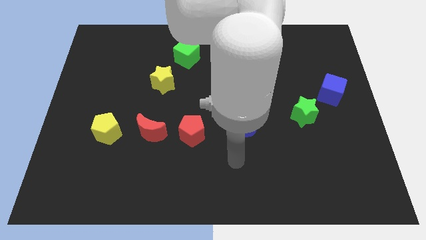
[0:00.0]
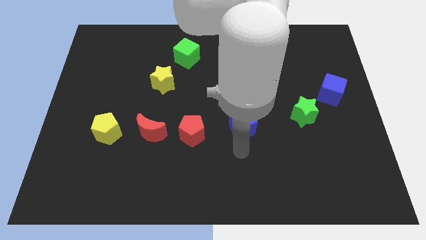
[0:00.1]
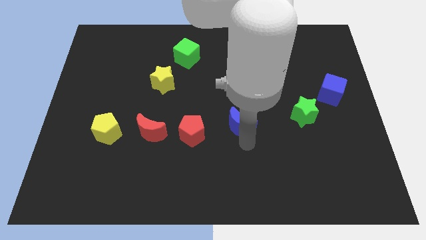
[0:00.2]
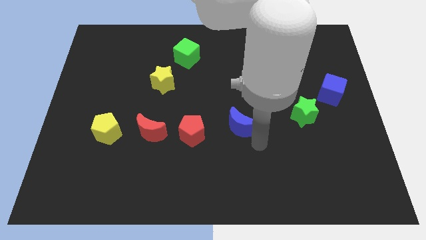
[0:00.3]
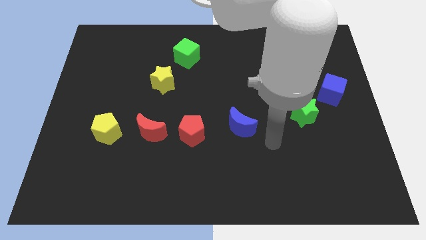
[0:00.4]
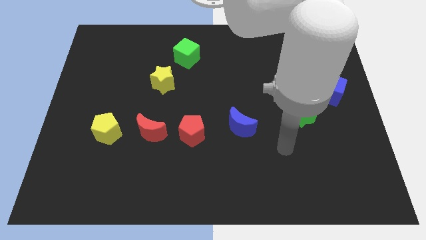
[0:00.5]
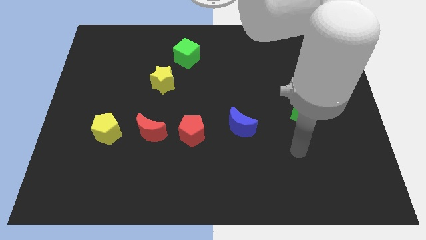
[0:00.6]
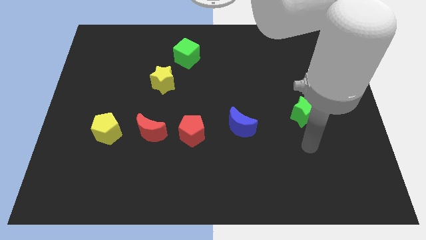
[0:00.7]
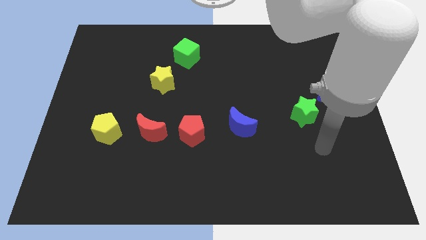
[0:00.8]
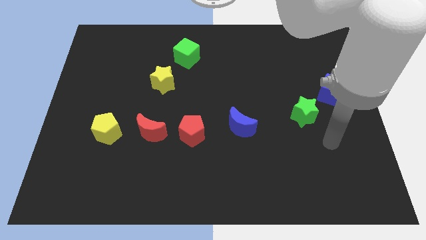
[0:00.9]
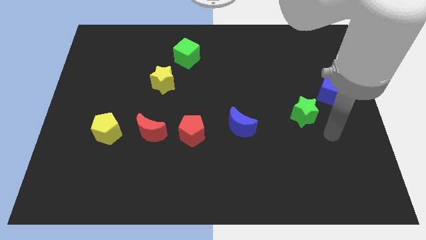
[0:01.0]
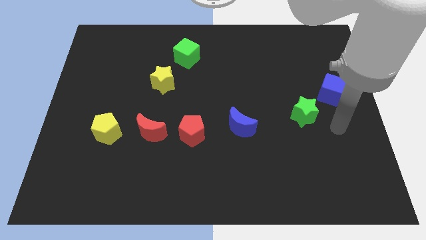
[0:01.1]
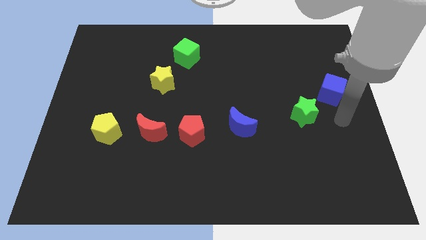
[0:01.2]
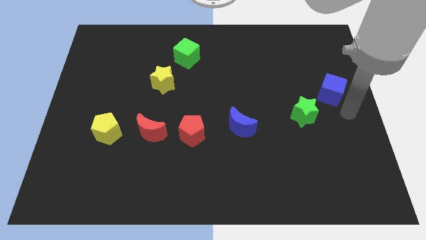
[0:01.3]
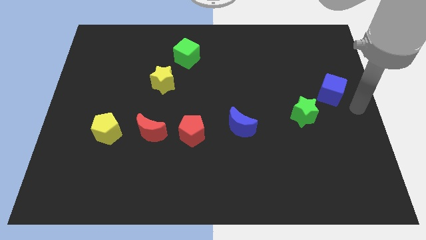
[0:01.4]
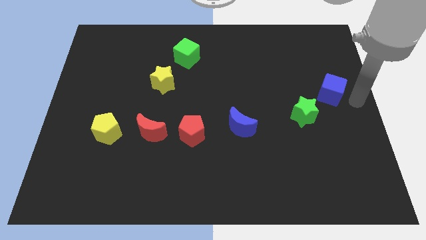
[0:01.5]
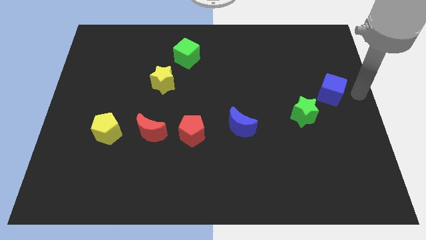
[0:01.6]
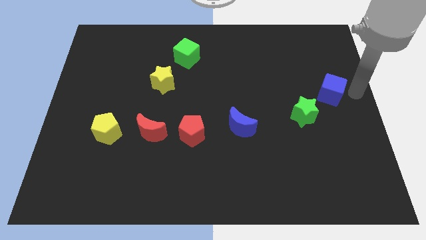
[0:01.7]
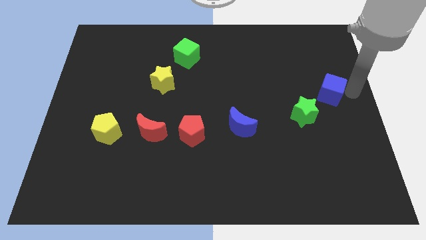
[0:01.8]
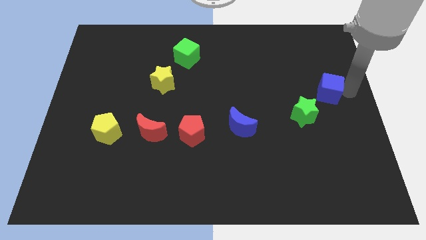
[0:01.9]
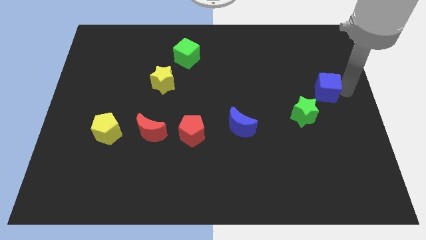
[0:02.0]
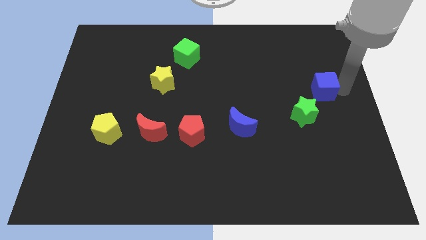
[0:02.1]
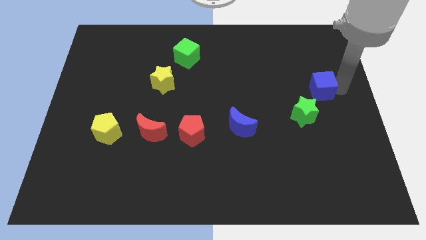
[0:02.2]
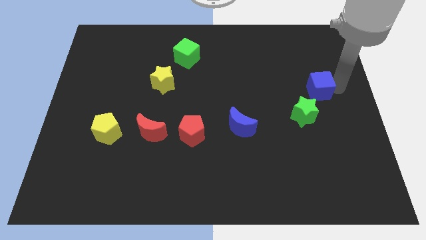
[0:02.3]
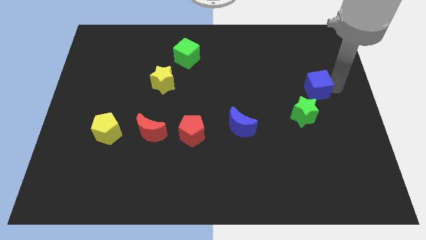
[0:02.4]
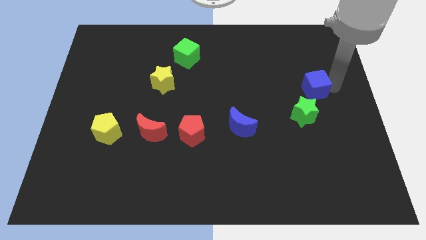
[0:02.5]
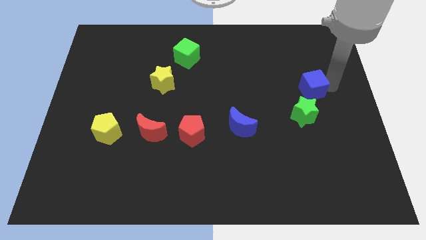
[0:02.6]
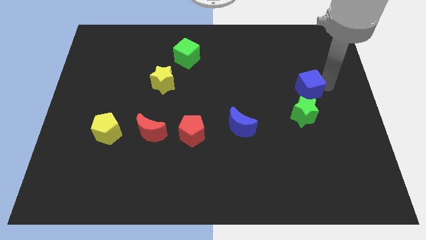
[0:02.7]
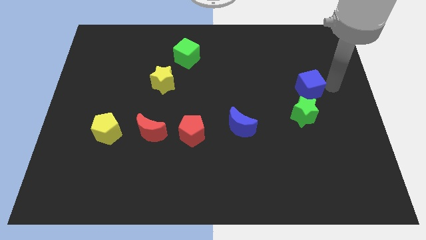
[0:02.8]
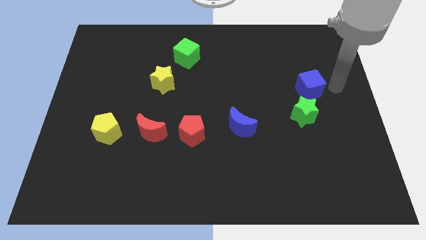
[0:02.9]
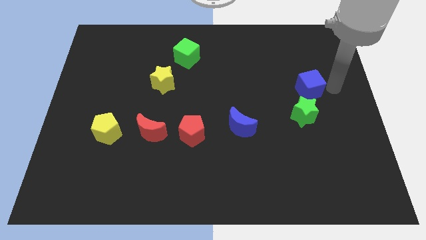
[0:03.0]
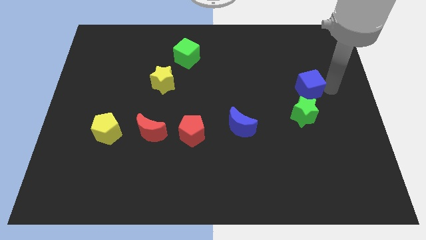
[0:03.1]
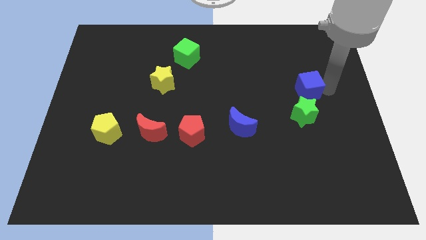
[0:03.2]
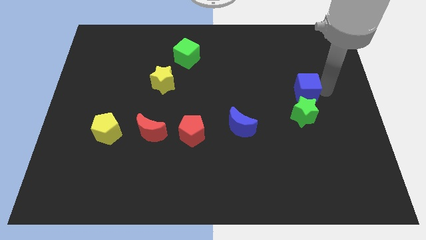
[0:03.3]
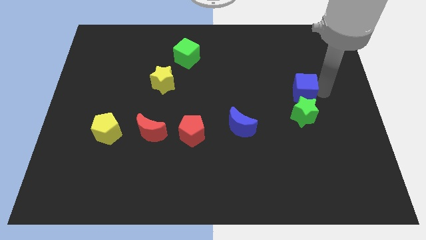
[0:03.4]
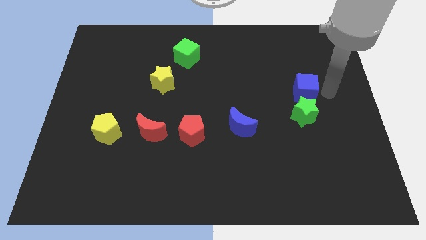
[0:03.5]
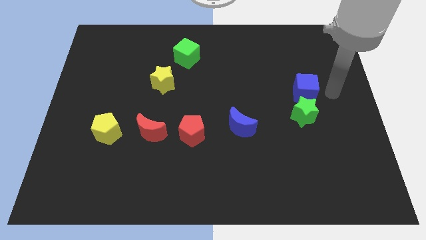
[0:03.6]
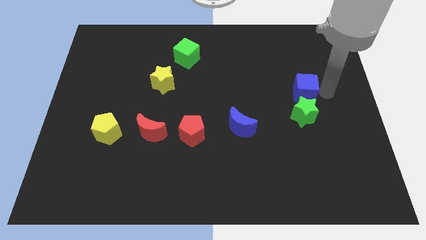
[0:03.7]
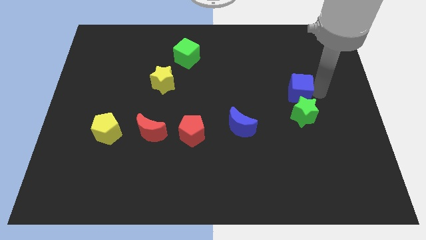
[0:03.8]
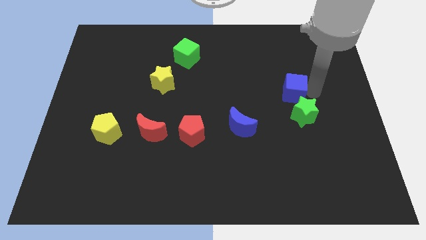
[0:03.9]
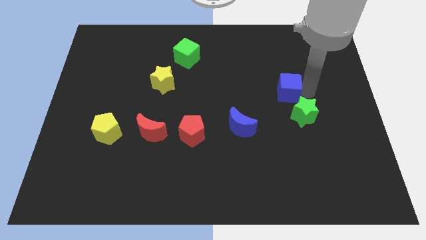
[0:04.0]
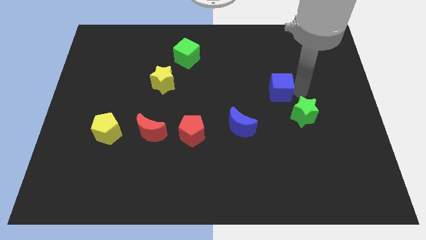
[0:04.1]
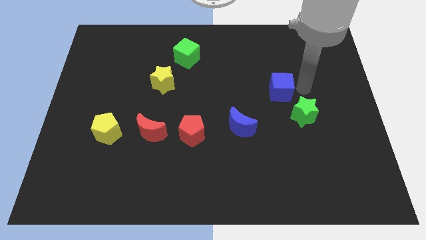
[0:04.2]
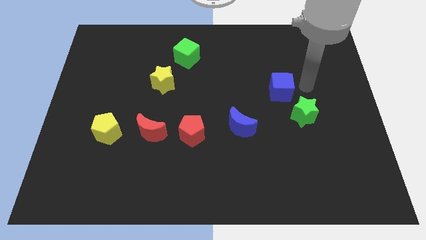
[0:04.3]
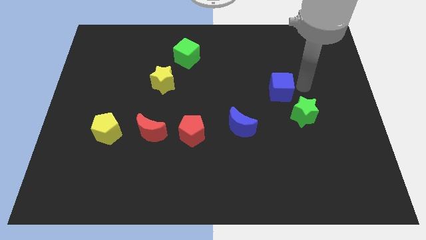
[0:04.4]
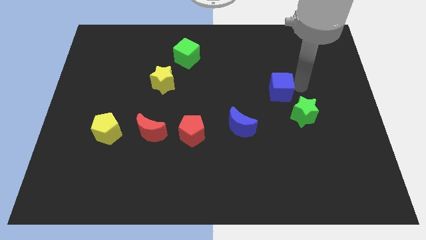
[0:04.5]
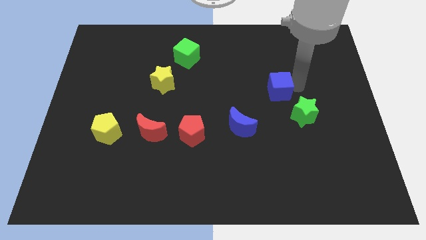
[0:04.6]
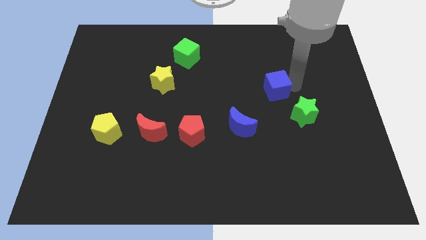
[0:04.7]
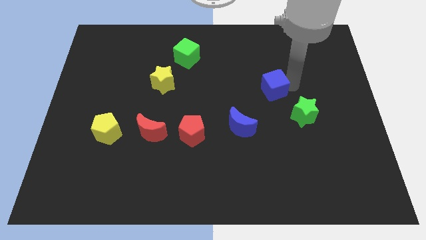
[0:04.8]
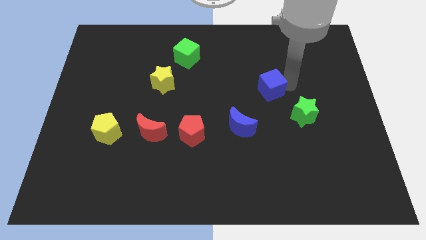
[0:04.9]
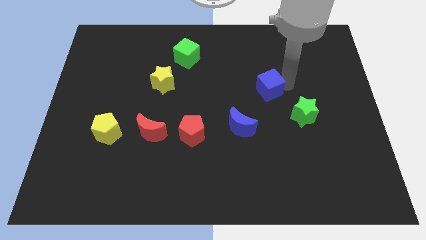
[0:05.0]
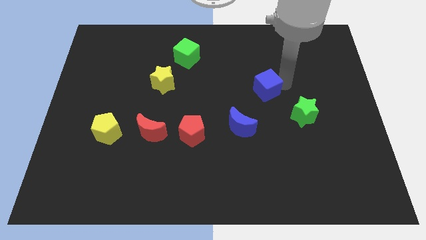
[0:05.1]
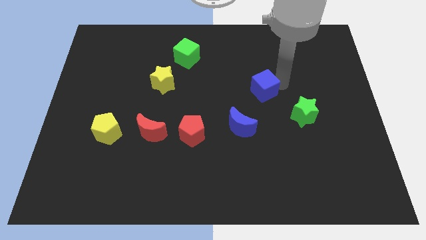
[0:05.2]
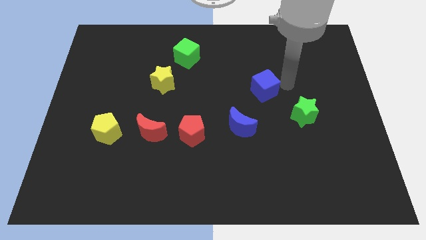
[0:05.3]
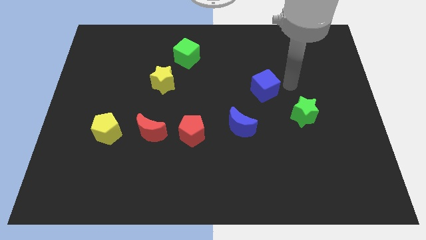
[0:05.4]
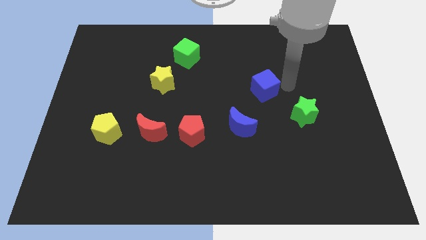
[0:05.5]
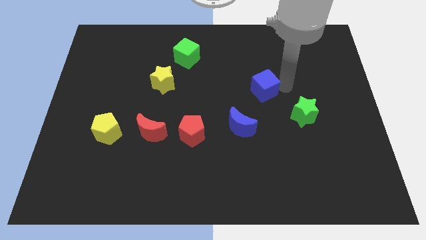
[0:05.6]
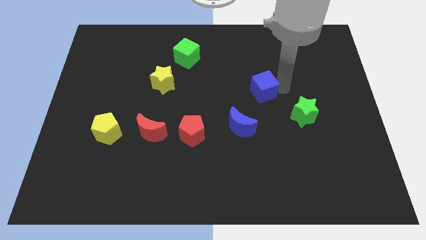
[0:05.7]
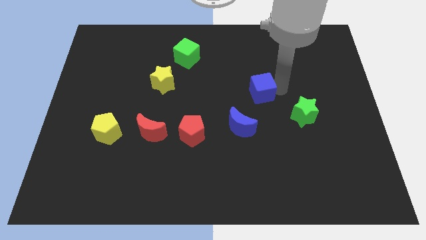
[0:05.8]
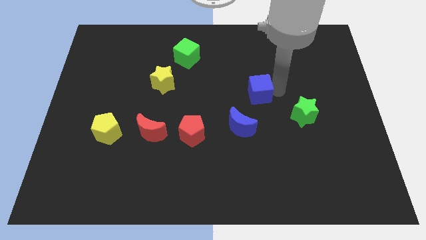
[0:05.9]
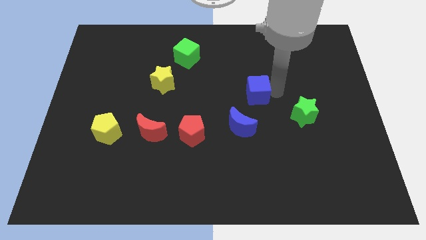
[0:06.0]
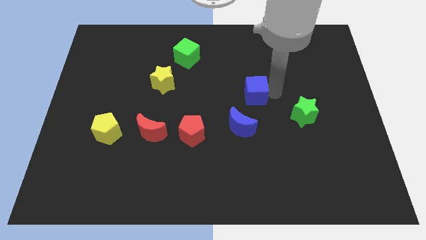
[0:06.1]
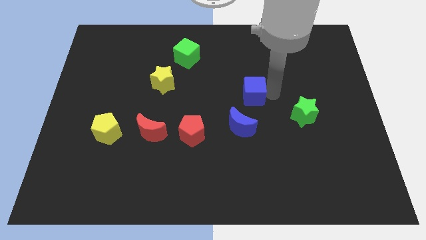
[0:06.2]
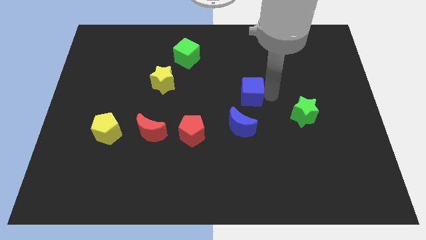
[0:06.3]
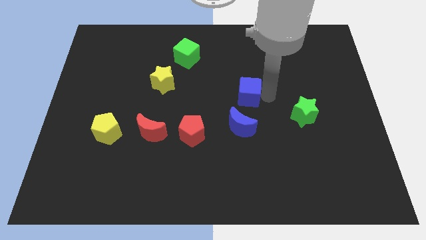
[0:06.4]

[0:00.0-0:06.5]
move the blue cube to the left

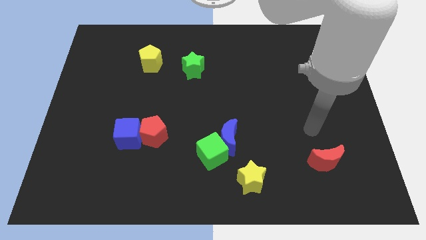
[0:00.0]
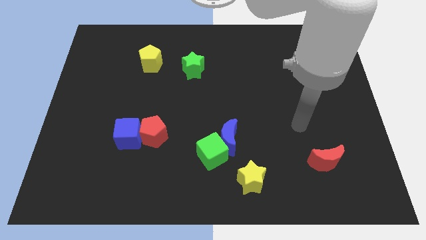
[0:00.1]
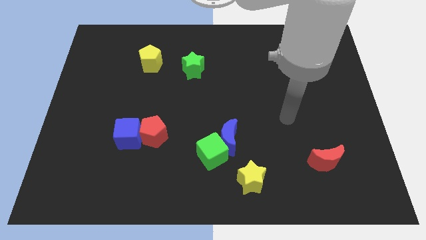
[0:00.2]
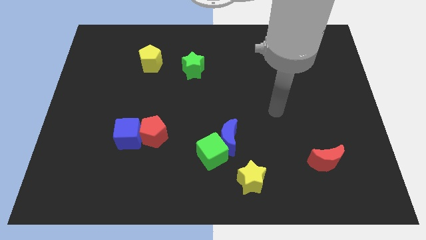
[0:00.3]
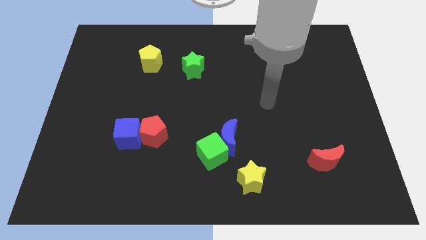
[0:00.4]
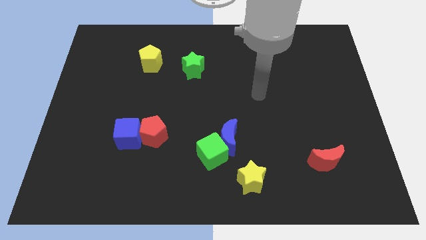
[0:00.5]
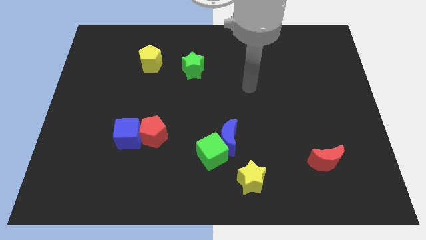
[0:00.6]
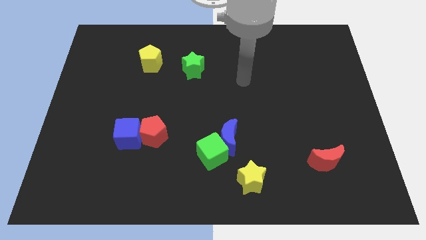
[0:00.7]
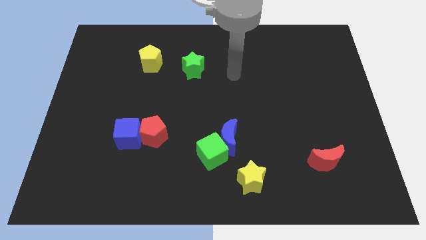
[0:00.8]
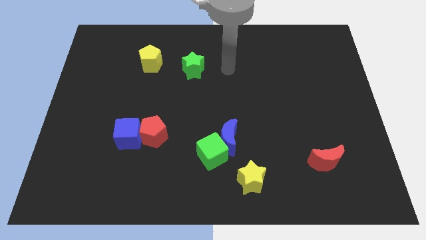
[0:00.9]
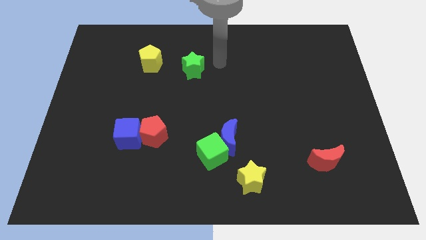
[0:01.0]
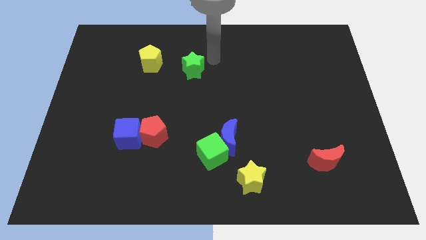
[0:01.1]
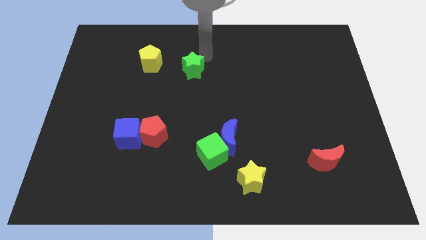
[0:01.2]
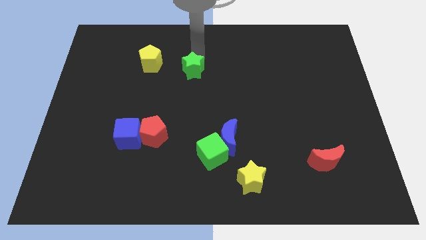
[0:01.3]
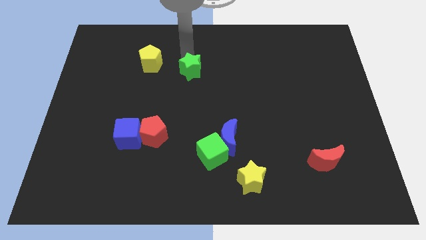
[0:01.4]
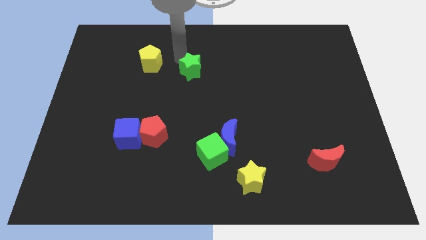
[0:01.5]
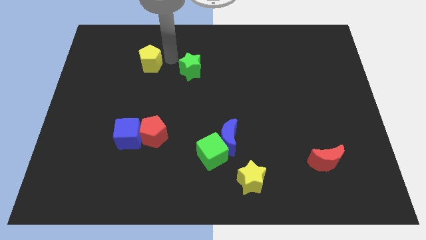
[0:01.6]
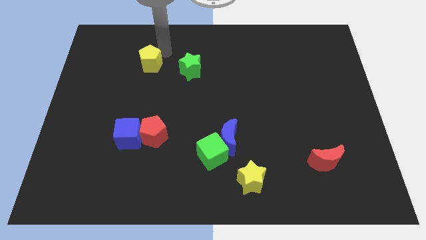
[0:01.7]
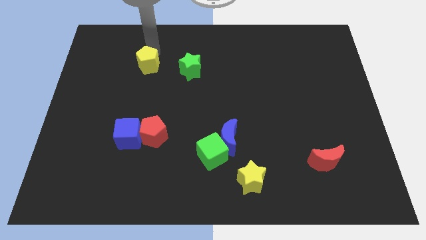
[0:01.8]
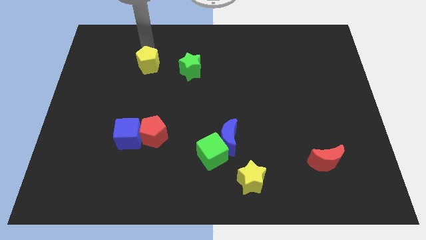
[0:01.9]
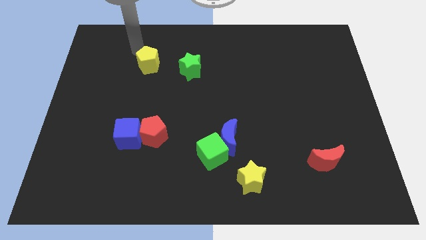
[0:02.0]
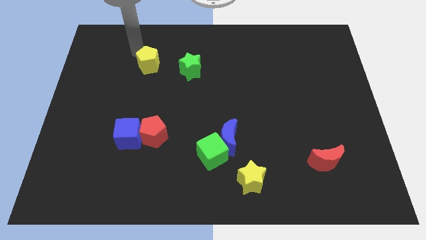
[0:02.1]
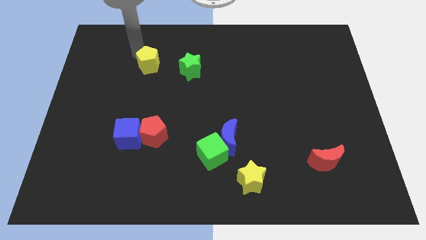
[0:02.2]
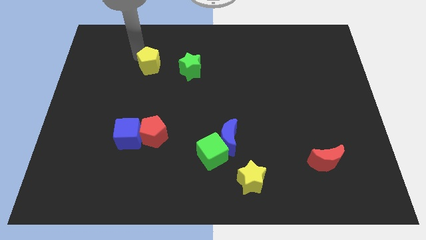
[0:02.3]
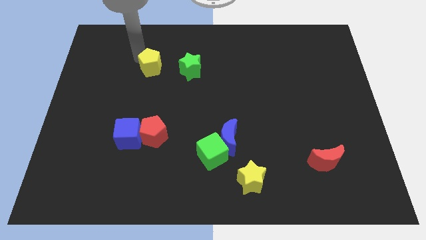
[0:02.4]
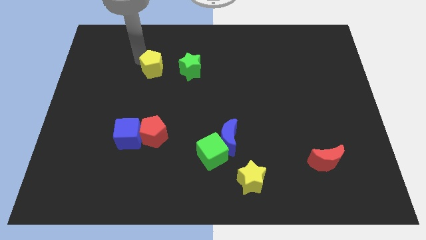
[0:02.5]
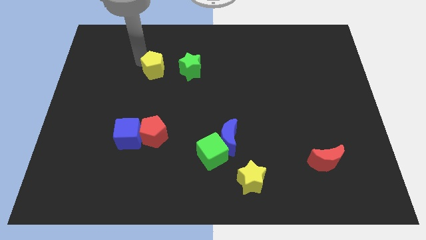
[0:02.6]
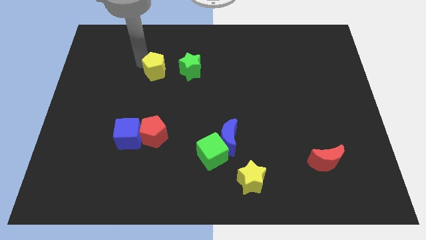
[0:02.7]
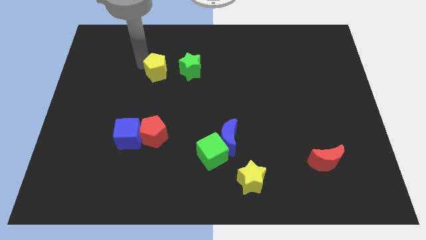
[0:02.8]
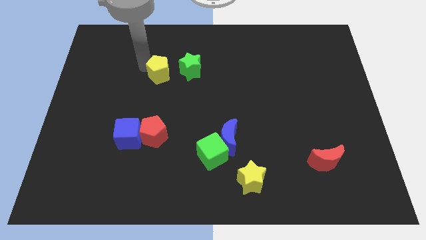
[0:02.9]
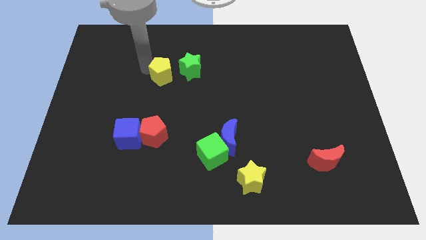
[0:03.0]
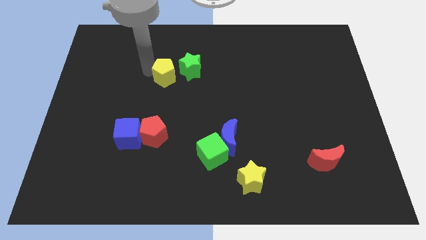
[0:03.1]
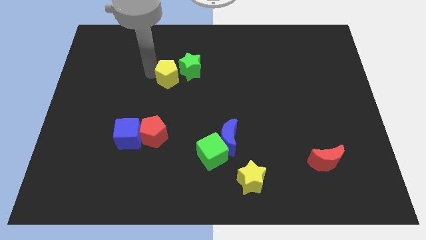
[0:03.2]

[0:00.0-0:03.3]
slightly move the yellow pentagon downwards and then right
